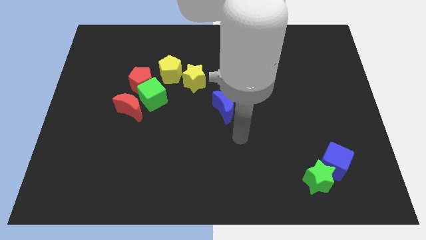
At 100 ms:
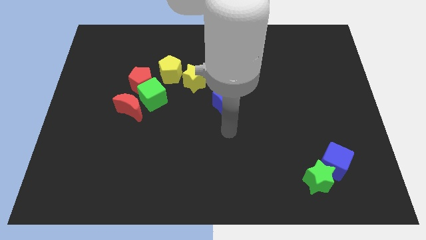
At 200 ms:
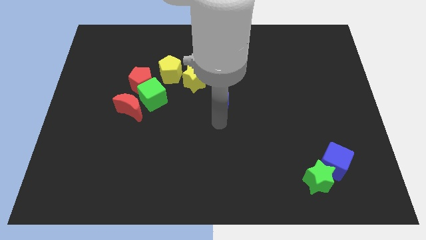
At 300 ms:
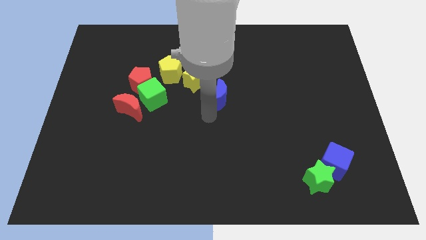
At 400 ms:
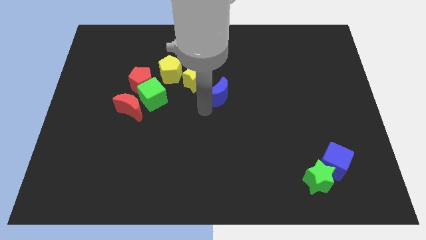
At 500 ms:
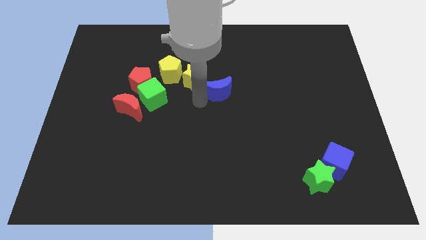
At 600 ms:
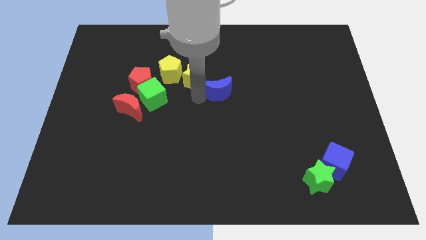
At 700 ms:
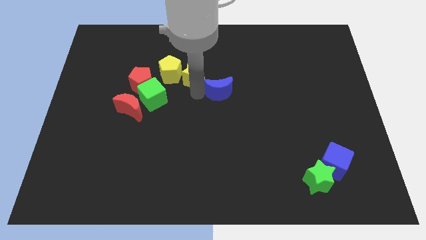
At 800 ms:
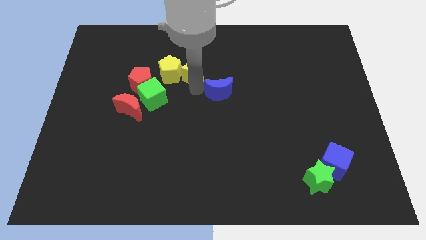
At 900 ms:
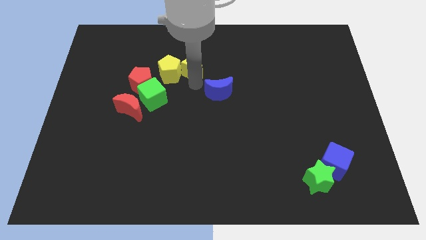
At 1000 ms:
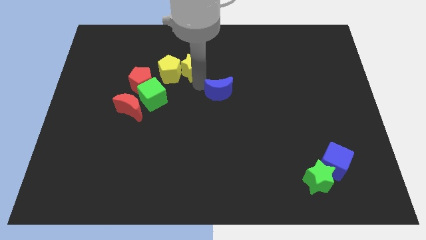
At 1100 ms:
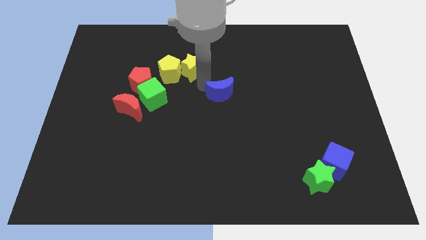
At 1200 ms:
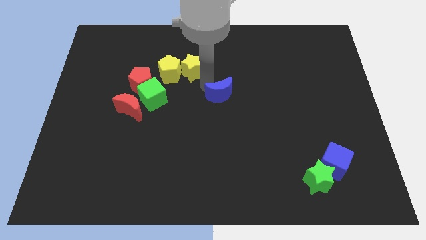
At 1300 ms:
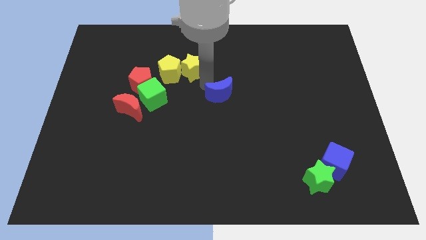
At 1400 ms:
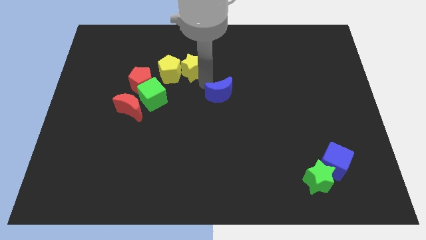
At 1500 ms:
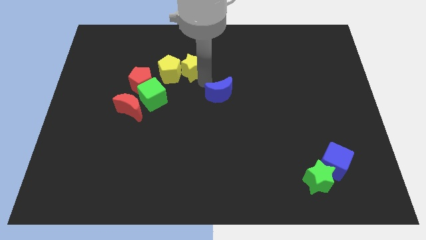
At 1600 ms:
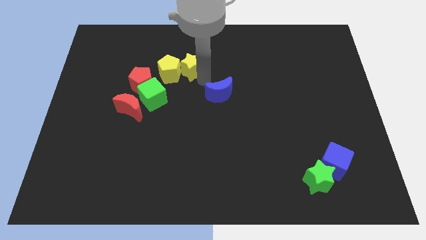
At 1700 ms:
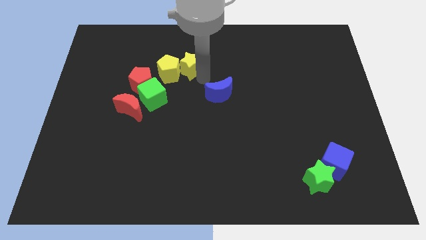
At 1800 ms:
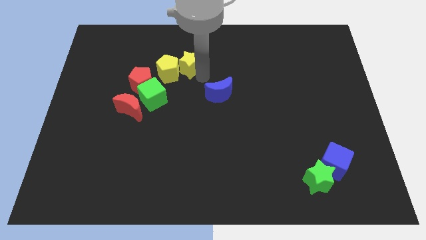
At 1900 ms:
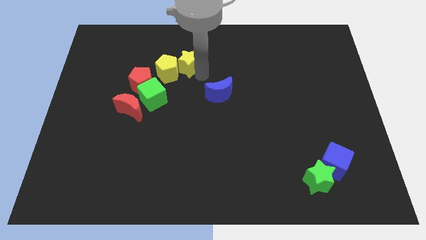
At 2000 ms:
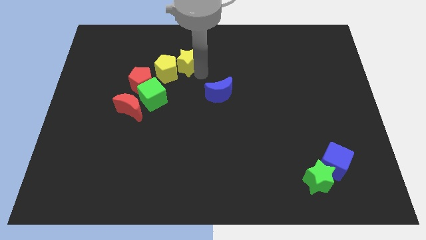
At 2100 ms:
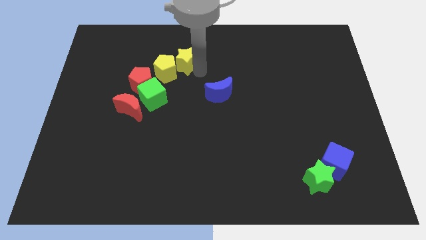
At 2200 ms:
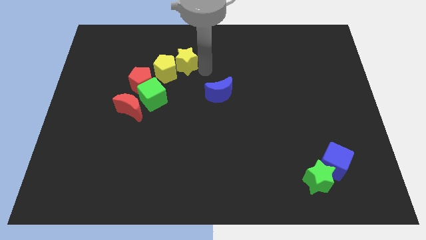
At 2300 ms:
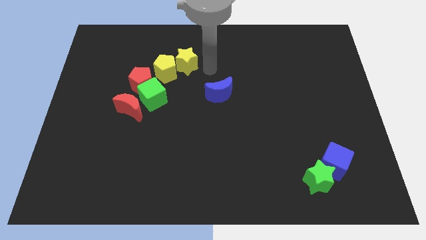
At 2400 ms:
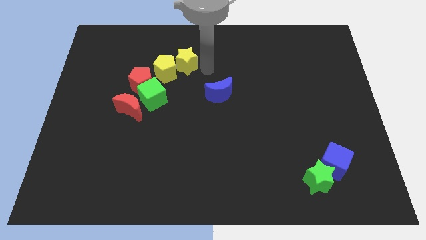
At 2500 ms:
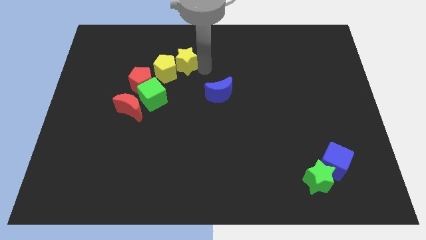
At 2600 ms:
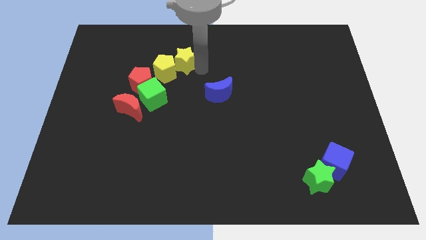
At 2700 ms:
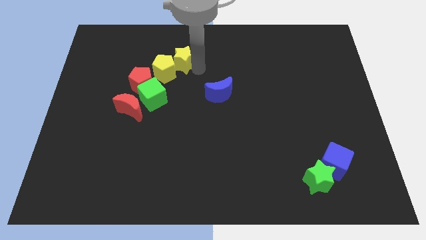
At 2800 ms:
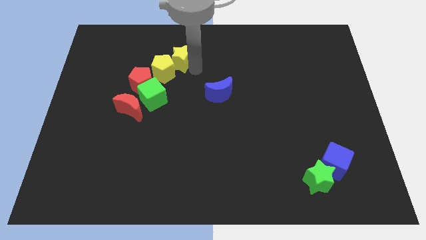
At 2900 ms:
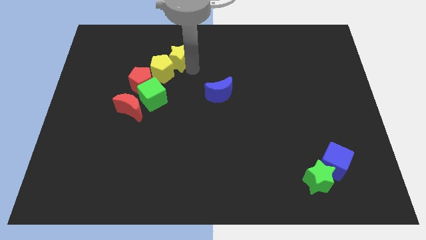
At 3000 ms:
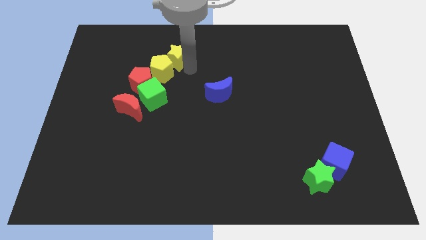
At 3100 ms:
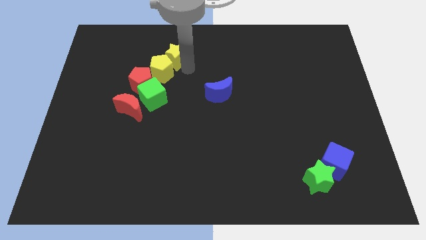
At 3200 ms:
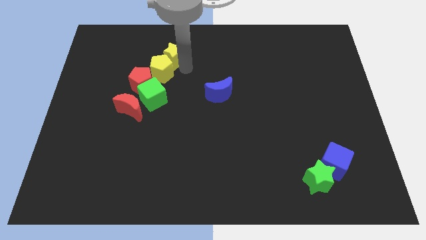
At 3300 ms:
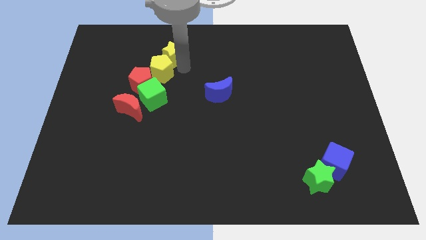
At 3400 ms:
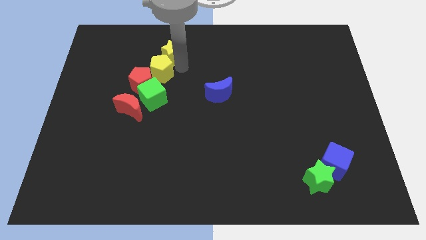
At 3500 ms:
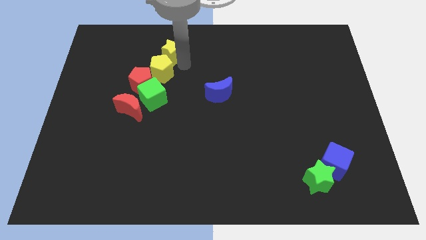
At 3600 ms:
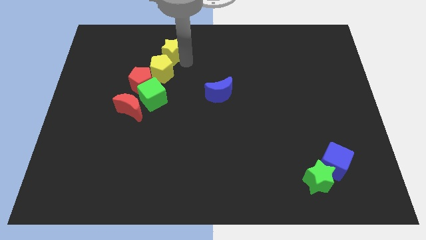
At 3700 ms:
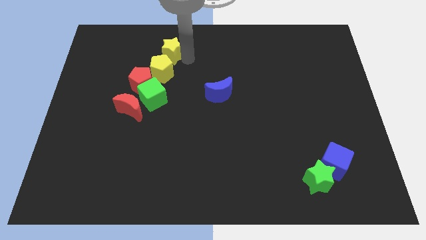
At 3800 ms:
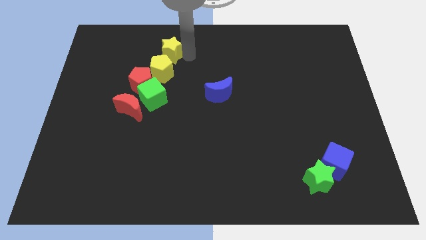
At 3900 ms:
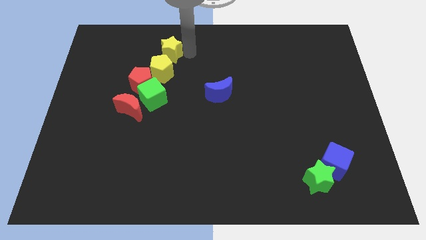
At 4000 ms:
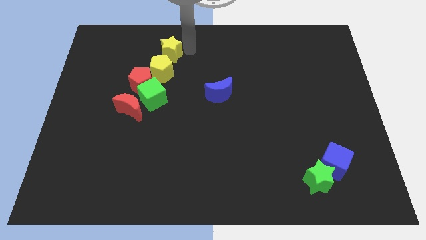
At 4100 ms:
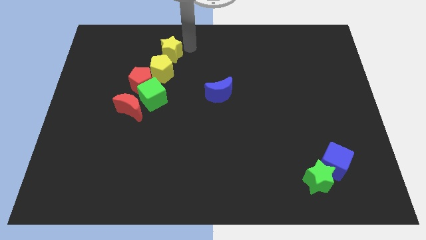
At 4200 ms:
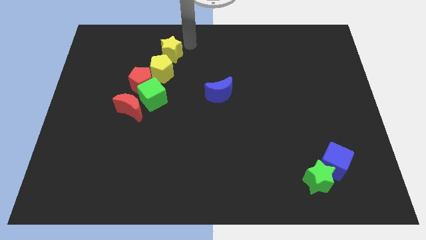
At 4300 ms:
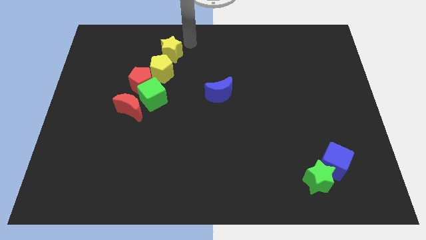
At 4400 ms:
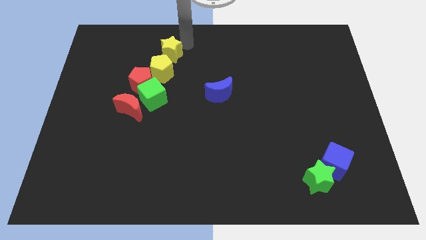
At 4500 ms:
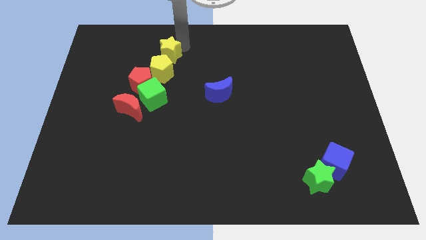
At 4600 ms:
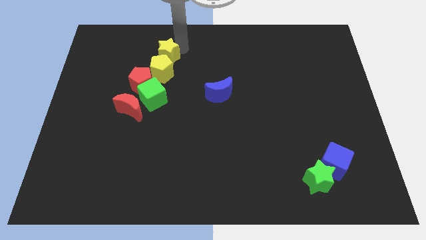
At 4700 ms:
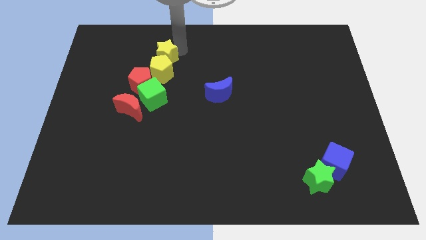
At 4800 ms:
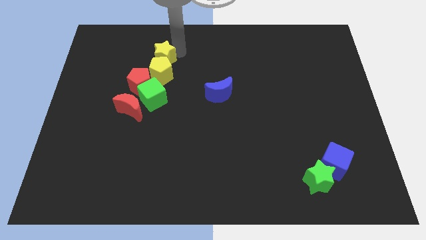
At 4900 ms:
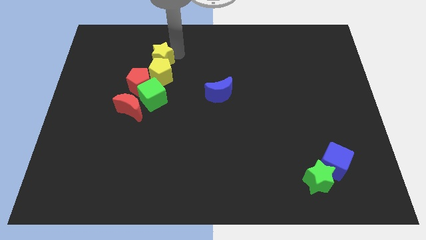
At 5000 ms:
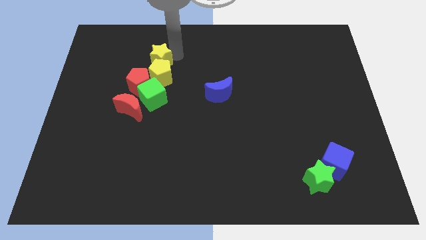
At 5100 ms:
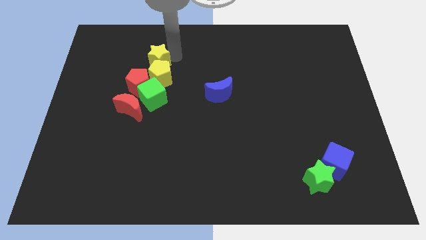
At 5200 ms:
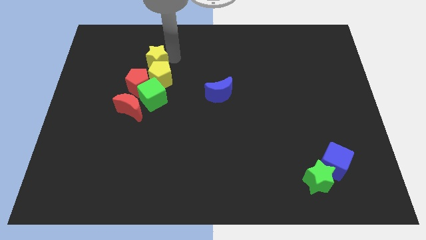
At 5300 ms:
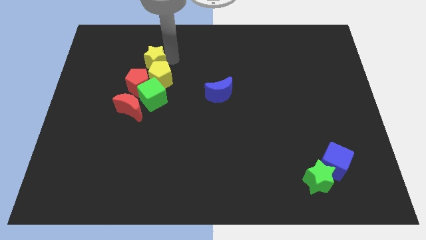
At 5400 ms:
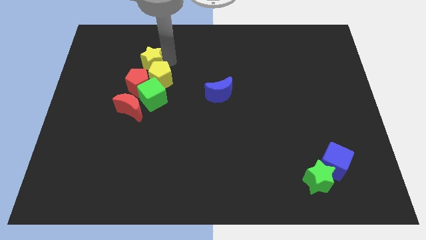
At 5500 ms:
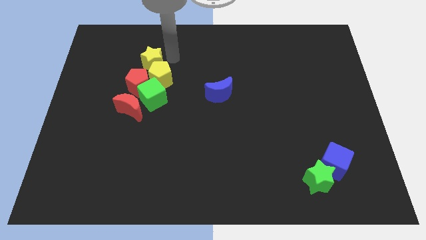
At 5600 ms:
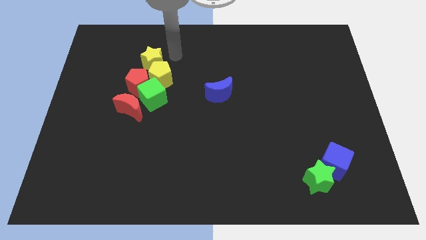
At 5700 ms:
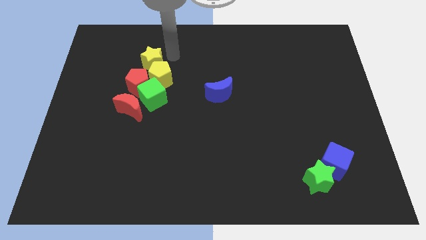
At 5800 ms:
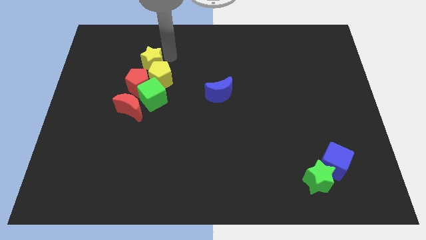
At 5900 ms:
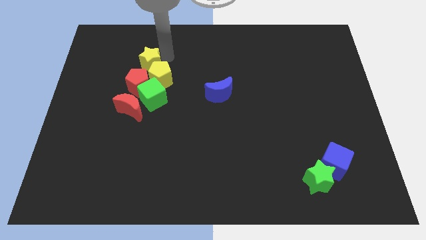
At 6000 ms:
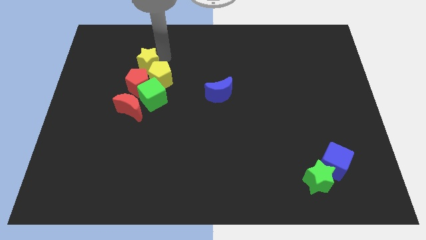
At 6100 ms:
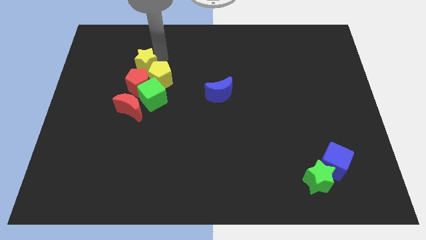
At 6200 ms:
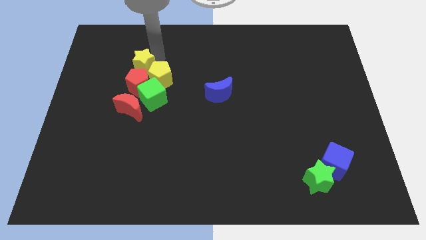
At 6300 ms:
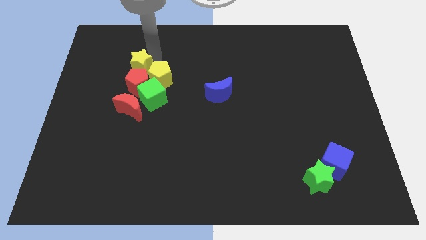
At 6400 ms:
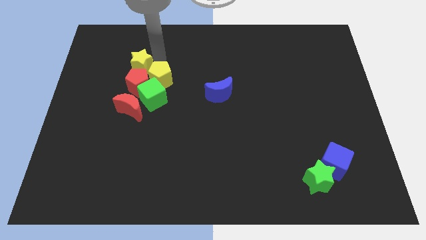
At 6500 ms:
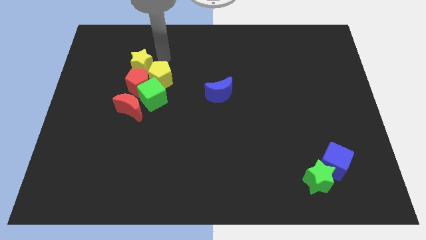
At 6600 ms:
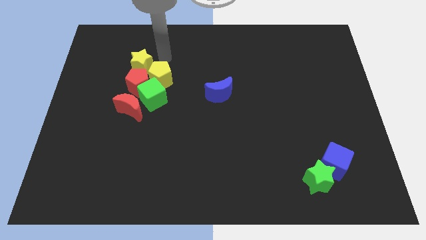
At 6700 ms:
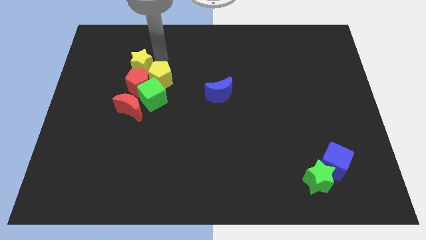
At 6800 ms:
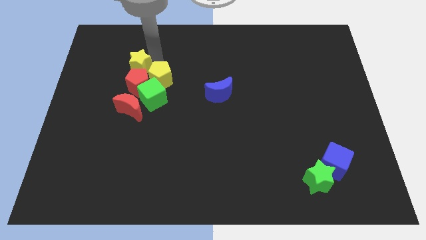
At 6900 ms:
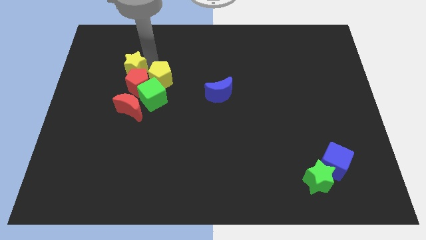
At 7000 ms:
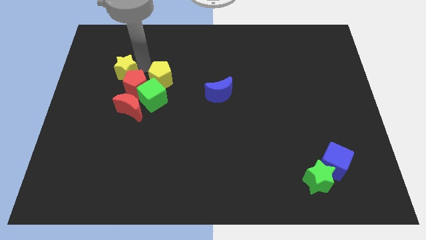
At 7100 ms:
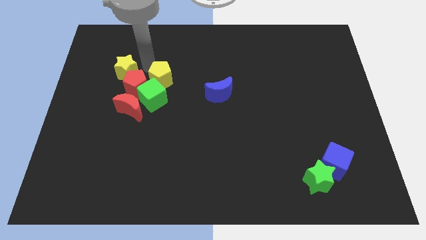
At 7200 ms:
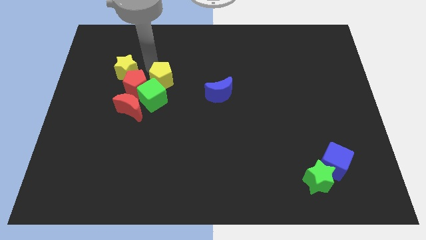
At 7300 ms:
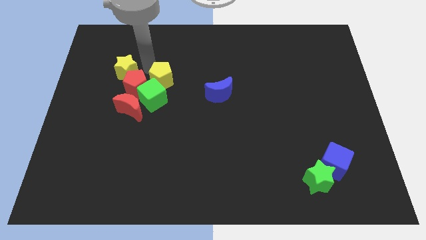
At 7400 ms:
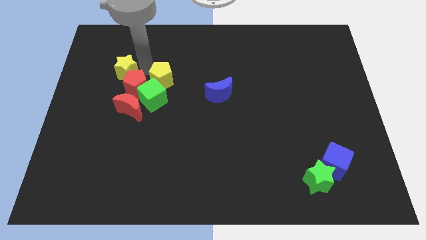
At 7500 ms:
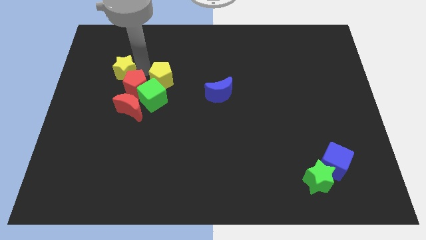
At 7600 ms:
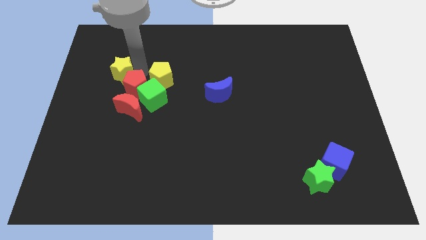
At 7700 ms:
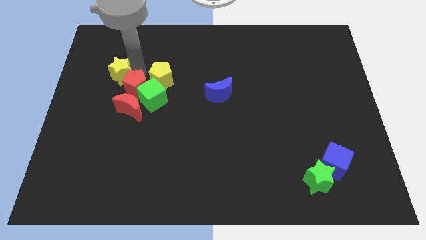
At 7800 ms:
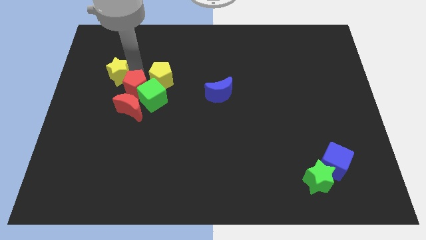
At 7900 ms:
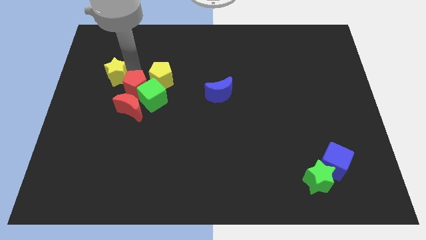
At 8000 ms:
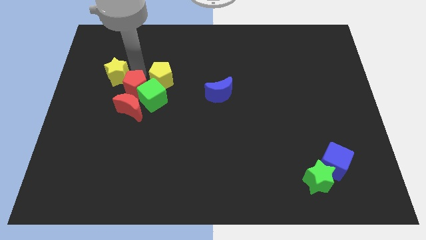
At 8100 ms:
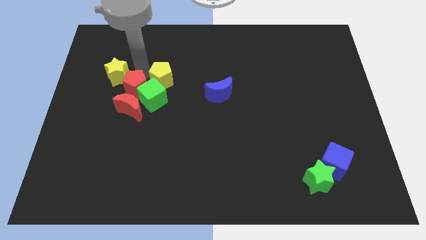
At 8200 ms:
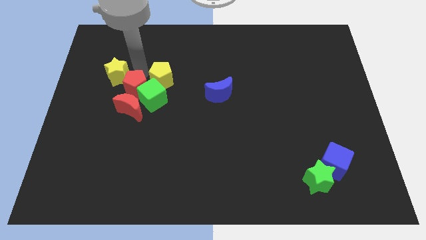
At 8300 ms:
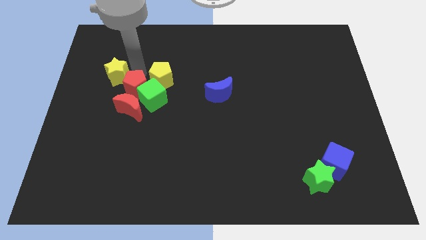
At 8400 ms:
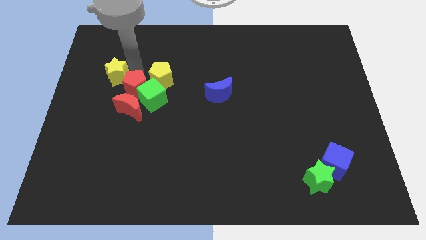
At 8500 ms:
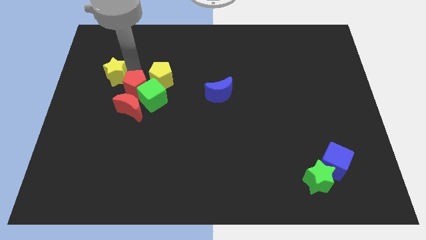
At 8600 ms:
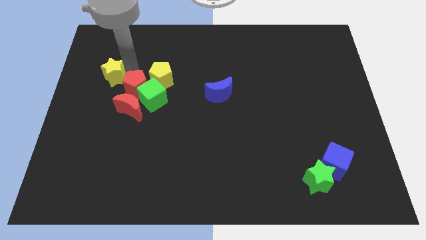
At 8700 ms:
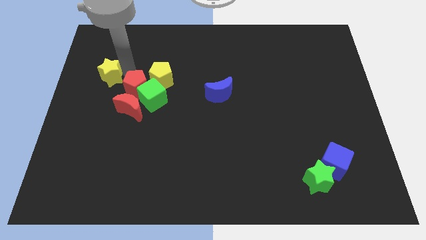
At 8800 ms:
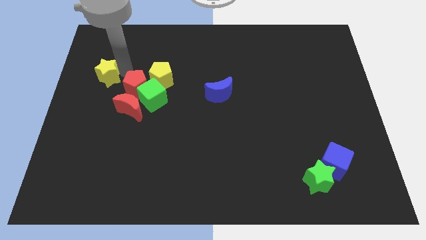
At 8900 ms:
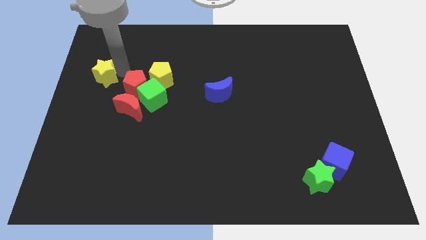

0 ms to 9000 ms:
push the yellow star to the center left
